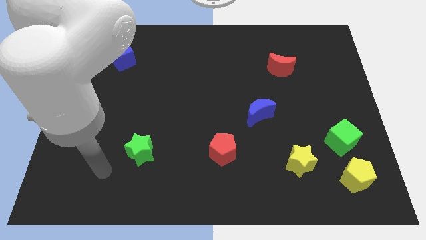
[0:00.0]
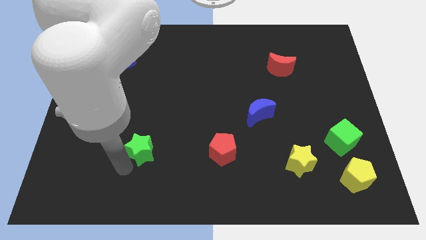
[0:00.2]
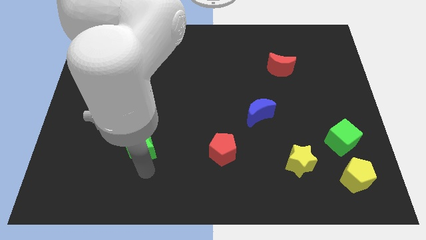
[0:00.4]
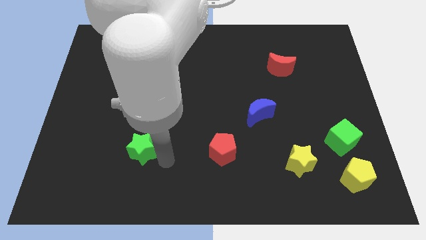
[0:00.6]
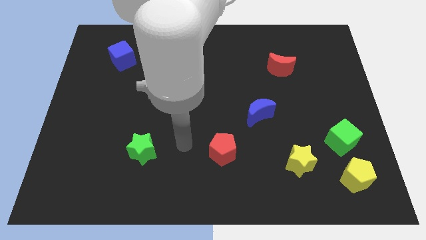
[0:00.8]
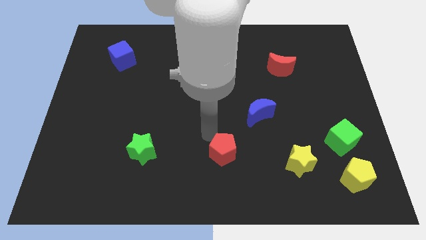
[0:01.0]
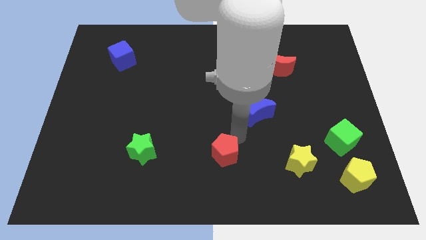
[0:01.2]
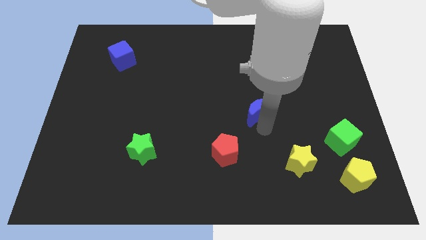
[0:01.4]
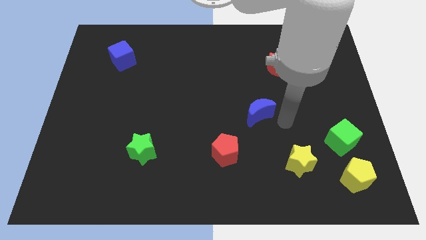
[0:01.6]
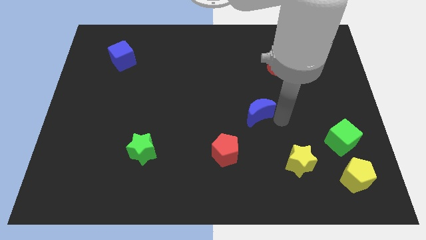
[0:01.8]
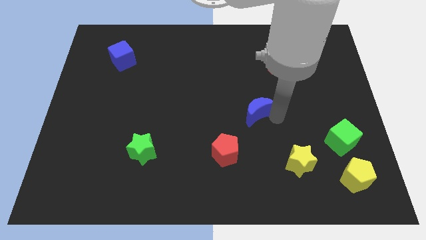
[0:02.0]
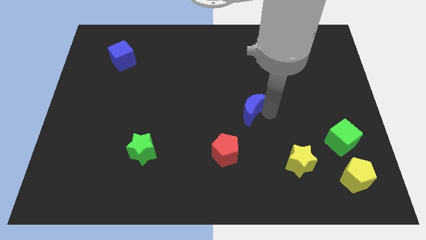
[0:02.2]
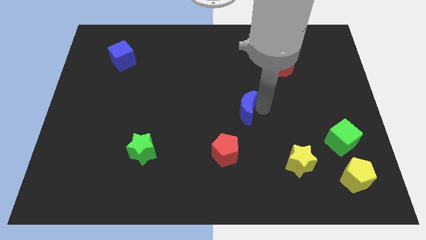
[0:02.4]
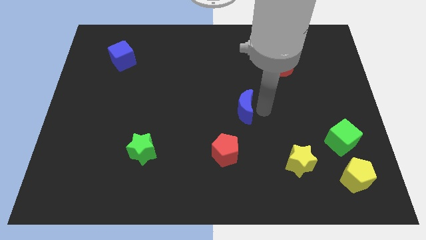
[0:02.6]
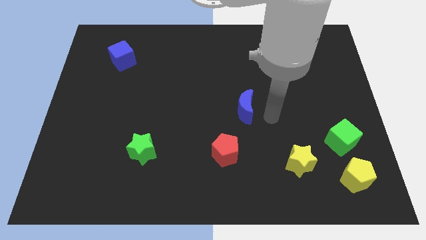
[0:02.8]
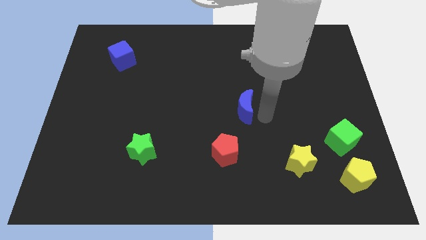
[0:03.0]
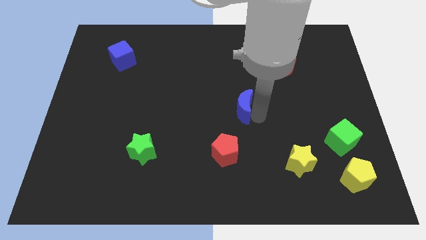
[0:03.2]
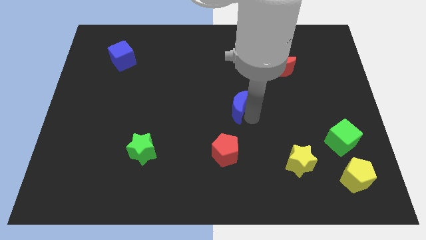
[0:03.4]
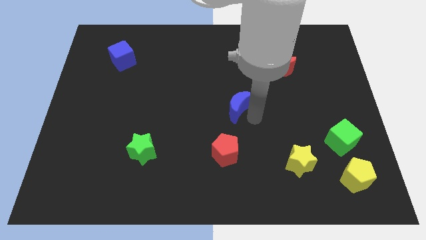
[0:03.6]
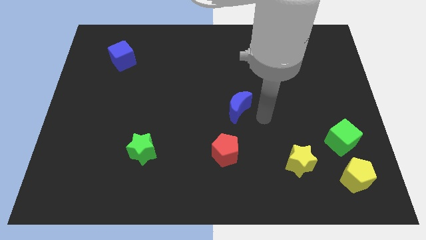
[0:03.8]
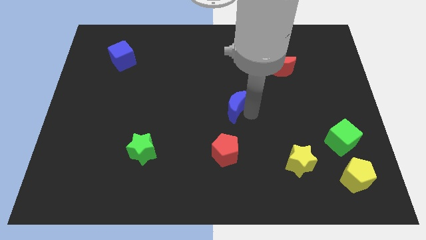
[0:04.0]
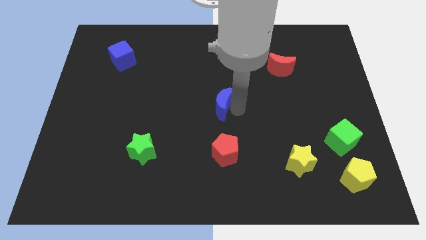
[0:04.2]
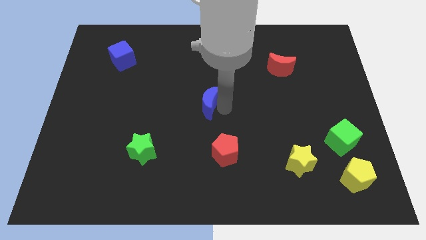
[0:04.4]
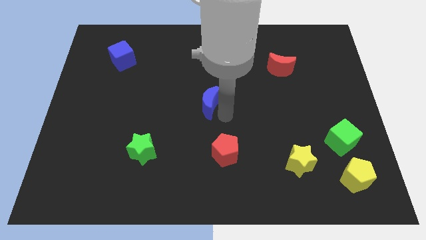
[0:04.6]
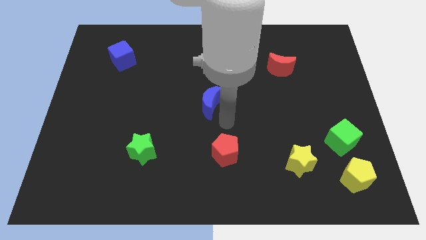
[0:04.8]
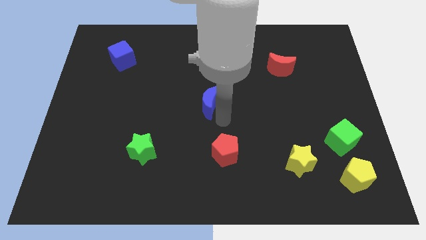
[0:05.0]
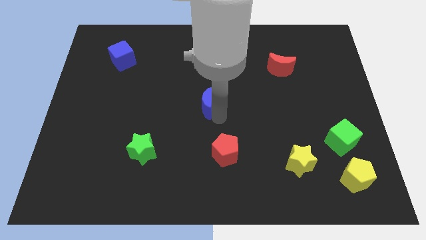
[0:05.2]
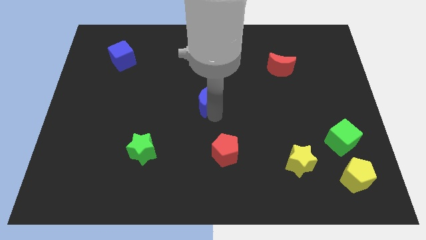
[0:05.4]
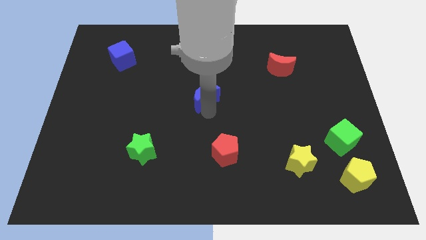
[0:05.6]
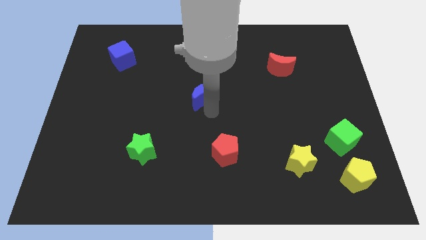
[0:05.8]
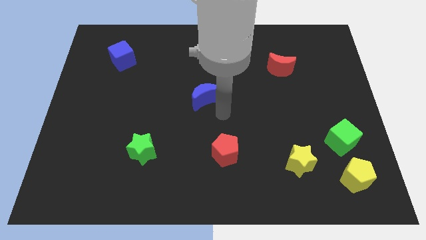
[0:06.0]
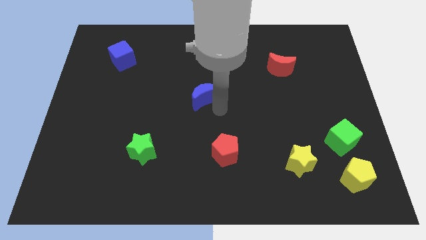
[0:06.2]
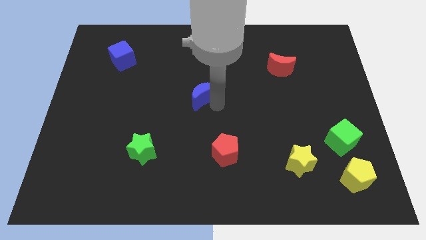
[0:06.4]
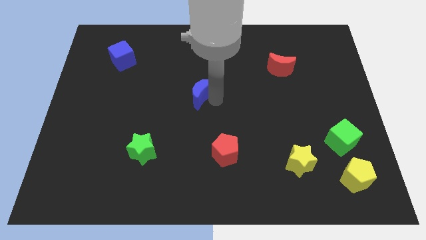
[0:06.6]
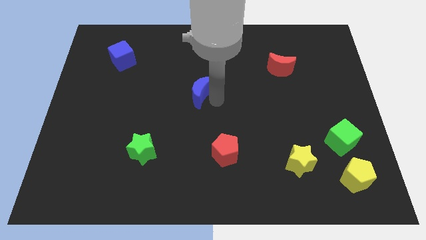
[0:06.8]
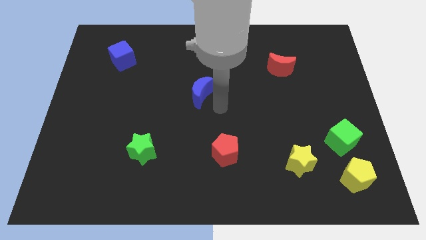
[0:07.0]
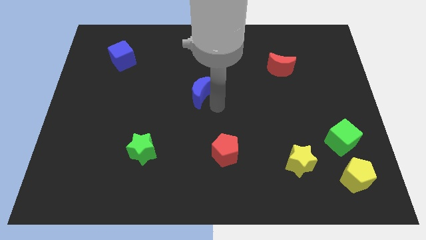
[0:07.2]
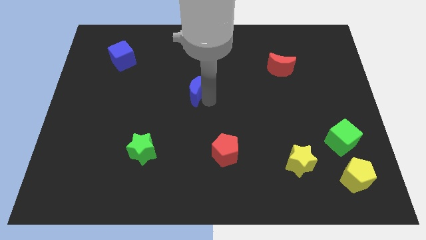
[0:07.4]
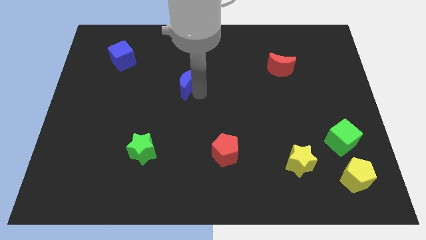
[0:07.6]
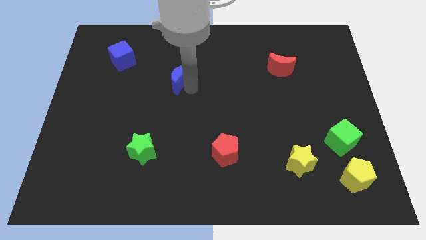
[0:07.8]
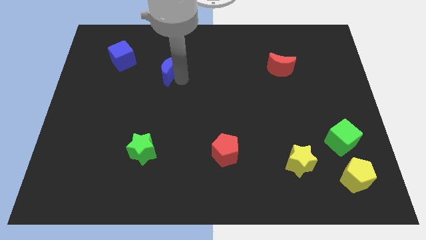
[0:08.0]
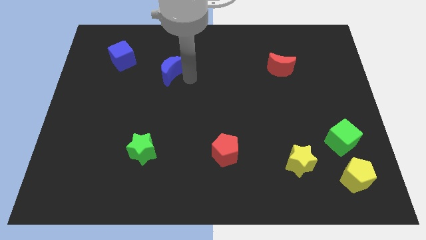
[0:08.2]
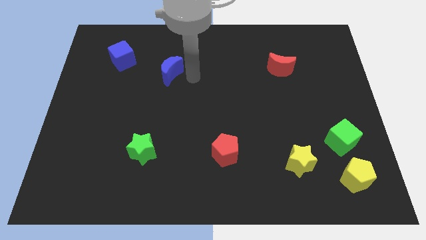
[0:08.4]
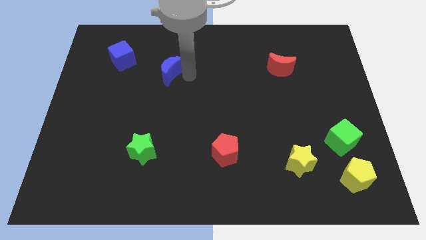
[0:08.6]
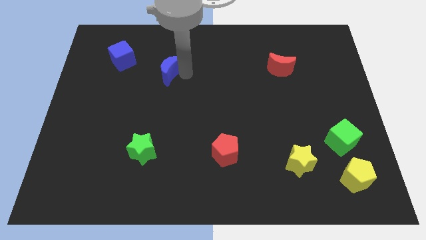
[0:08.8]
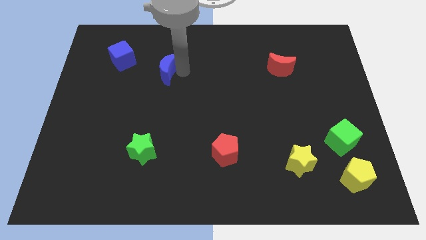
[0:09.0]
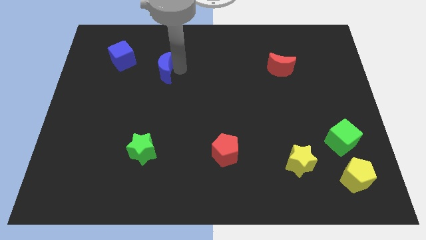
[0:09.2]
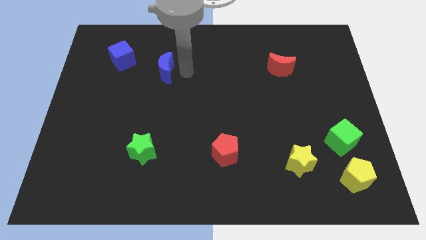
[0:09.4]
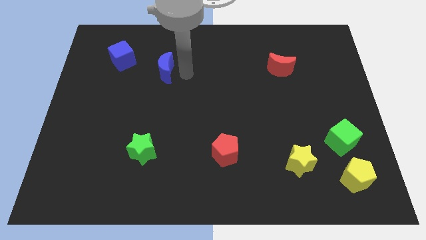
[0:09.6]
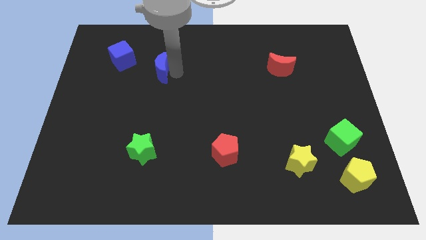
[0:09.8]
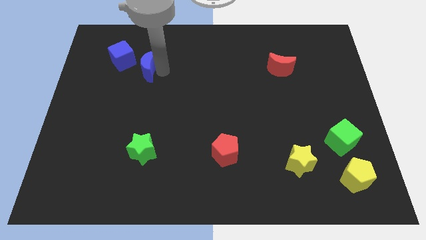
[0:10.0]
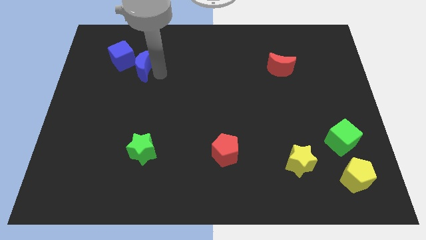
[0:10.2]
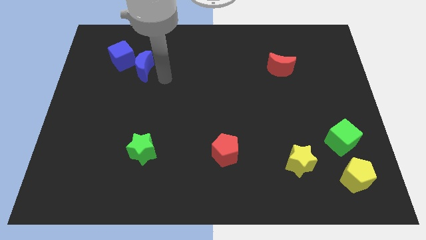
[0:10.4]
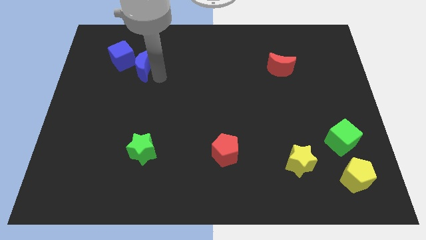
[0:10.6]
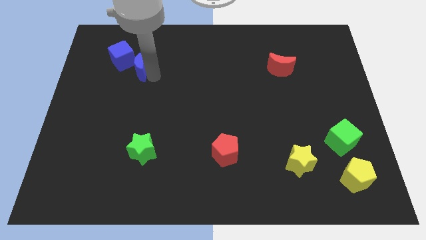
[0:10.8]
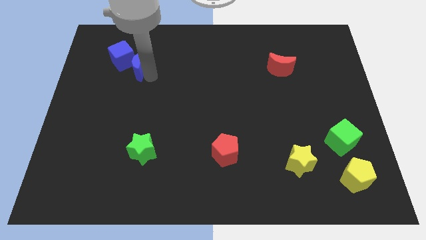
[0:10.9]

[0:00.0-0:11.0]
slide the blue moon close to the blue cube

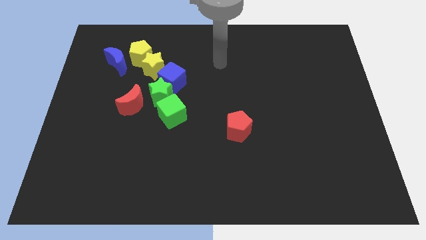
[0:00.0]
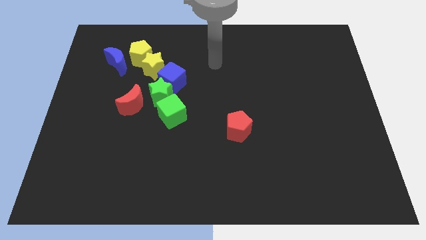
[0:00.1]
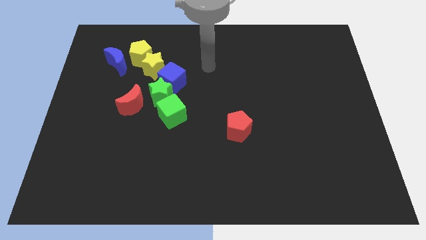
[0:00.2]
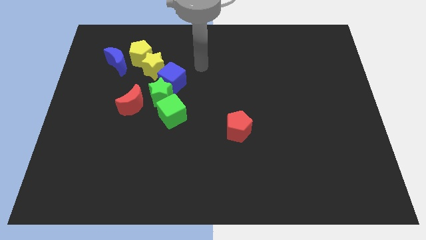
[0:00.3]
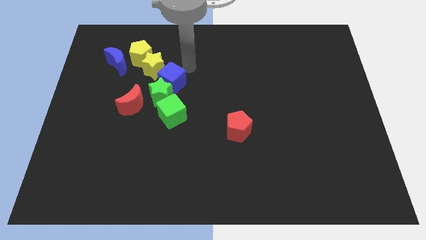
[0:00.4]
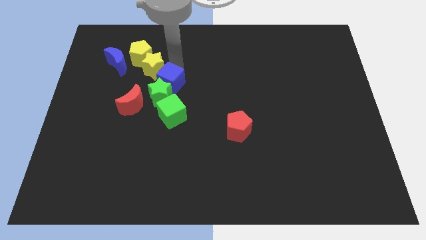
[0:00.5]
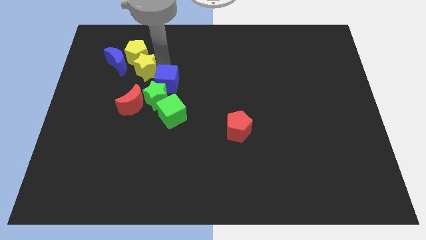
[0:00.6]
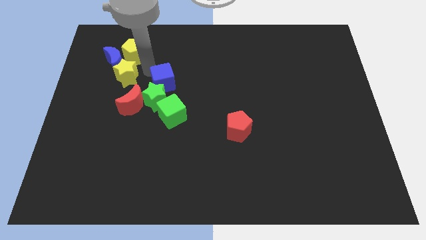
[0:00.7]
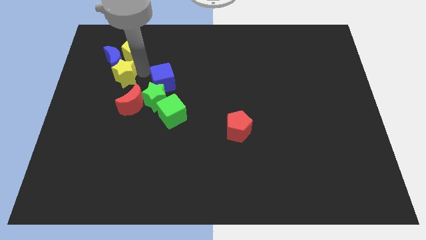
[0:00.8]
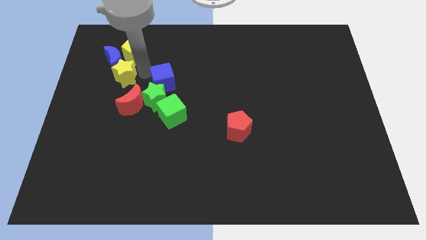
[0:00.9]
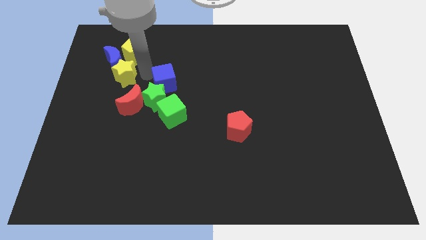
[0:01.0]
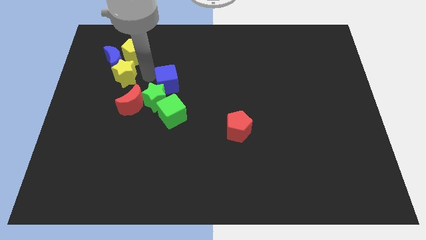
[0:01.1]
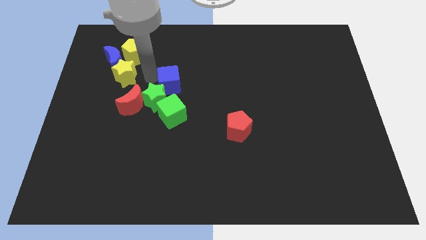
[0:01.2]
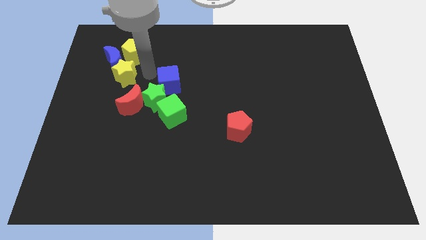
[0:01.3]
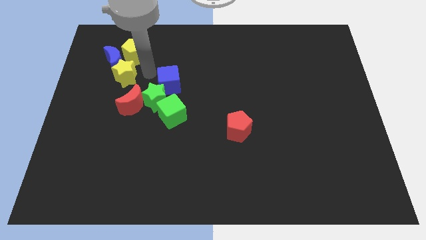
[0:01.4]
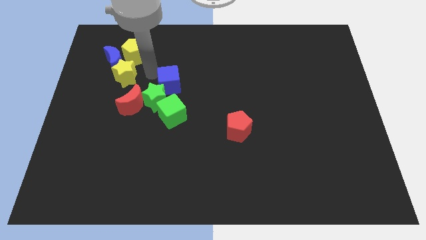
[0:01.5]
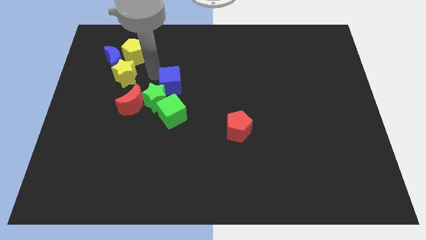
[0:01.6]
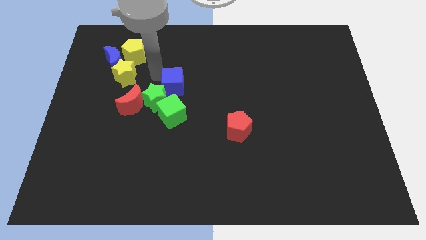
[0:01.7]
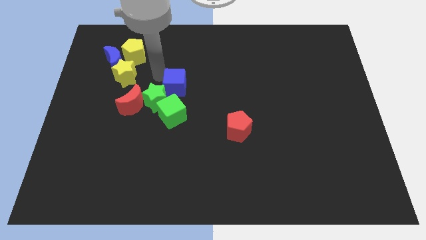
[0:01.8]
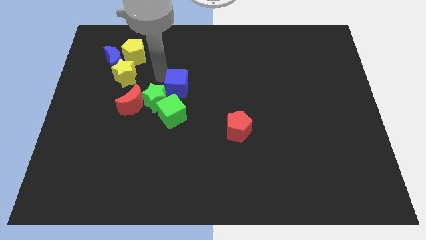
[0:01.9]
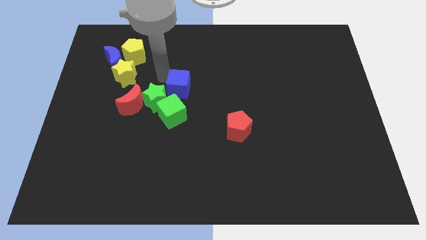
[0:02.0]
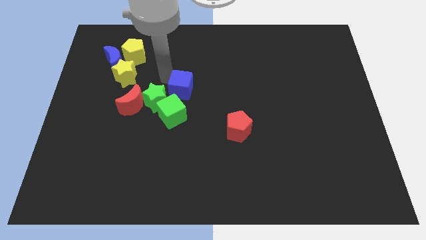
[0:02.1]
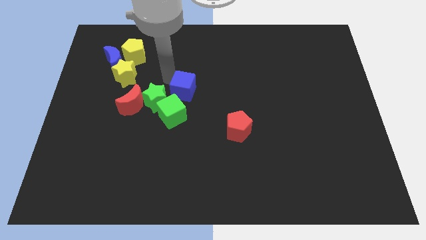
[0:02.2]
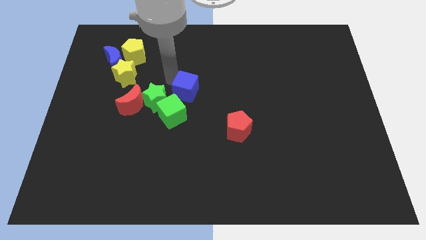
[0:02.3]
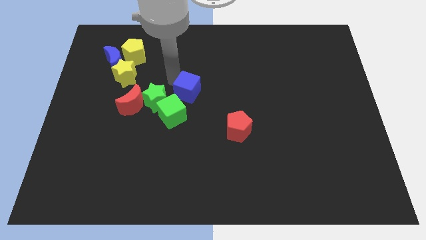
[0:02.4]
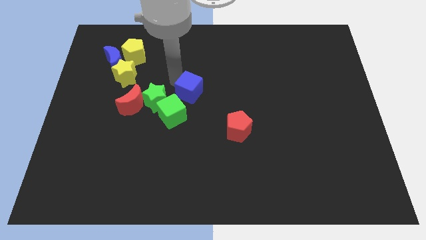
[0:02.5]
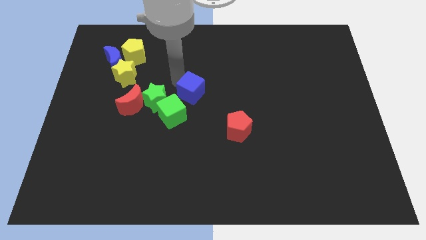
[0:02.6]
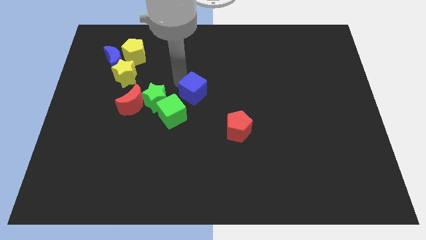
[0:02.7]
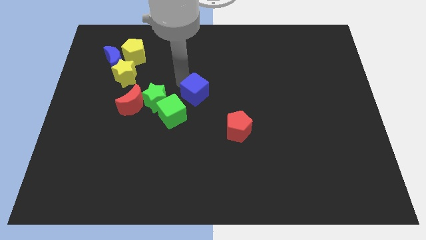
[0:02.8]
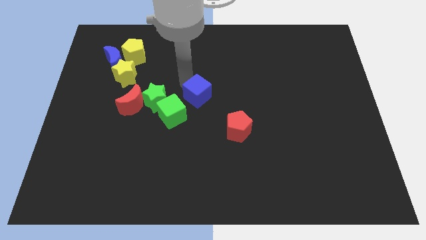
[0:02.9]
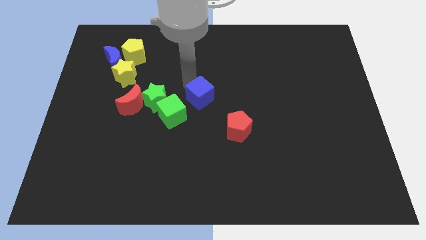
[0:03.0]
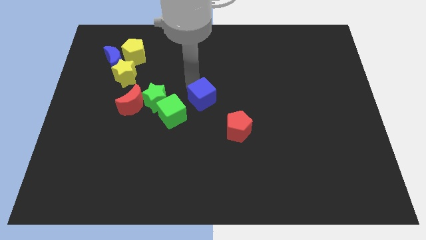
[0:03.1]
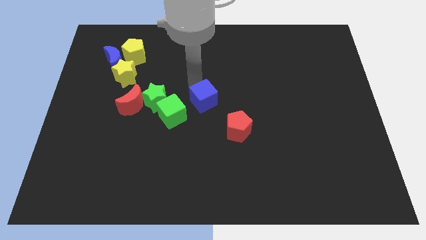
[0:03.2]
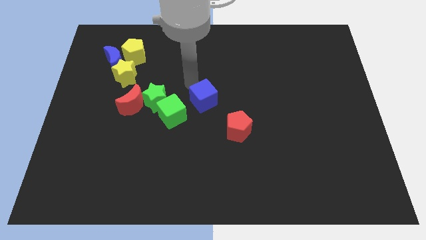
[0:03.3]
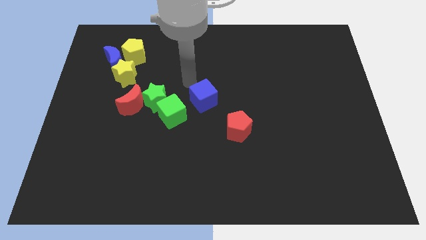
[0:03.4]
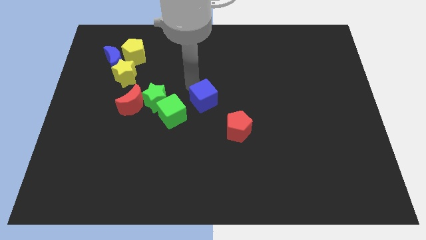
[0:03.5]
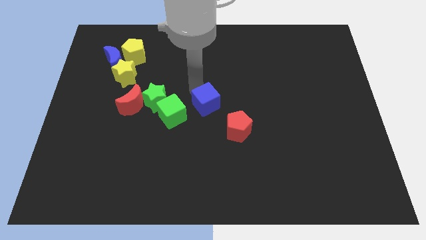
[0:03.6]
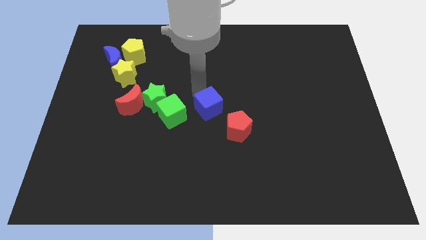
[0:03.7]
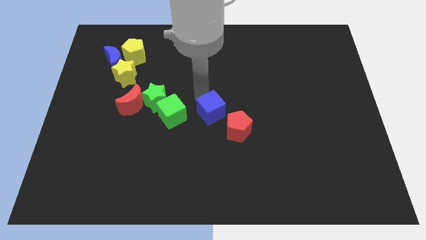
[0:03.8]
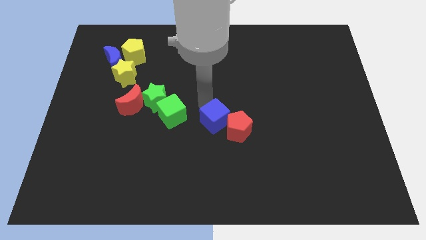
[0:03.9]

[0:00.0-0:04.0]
put the blue cube next to the red pentagon
